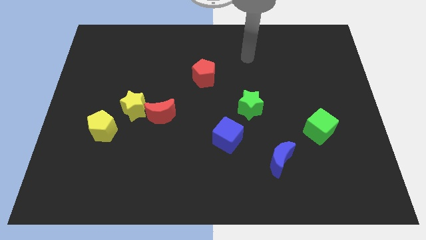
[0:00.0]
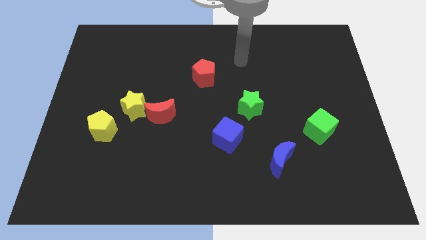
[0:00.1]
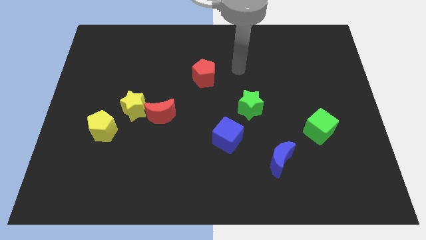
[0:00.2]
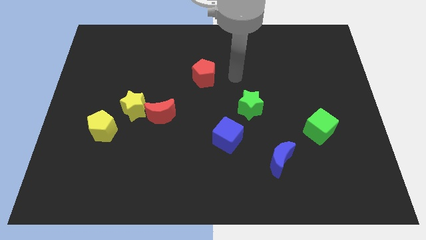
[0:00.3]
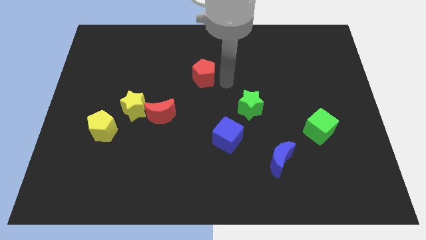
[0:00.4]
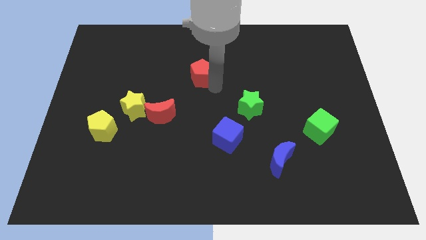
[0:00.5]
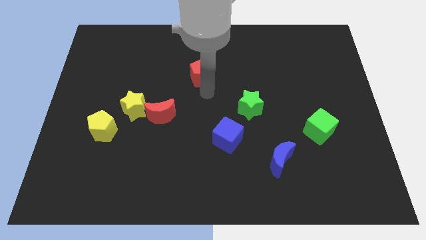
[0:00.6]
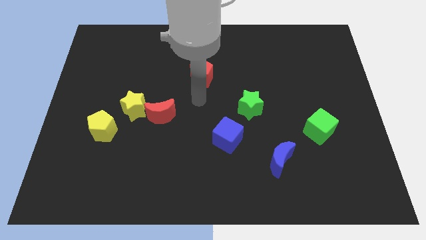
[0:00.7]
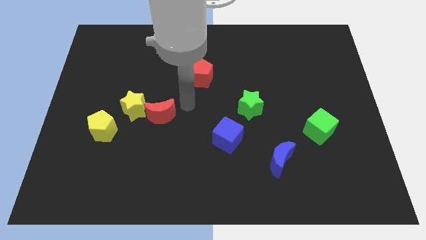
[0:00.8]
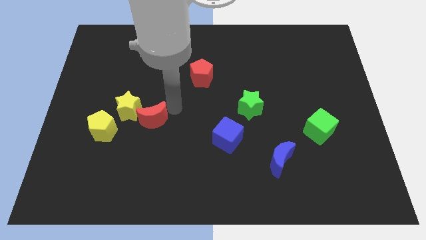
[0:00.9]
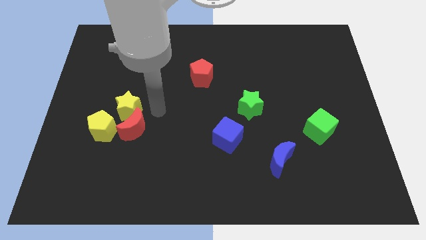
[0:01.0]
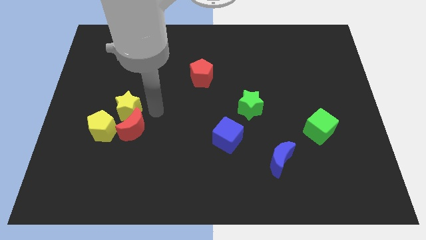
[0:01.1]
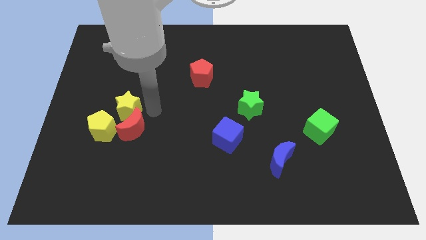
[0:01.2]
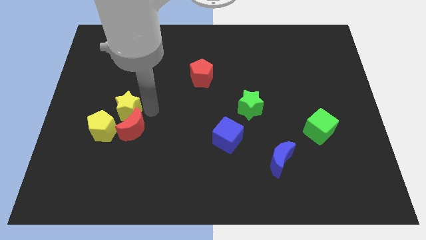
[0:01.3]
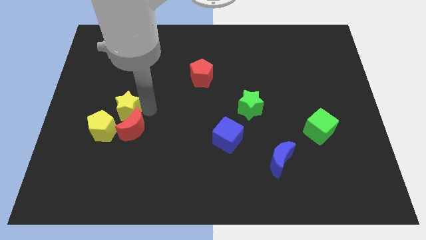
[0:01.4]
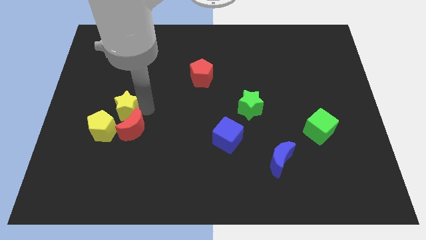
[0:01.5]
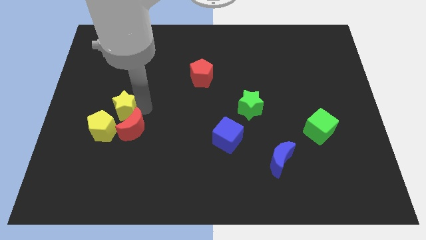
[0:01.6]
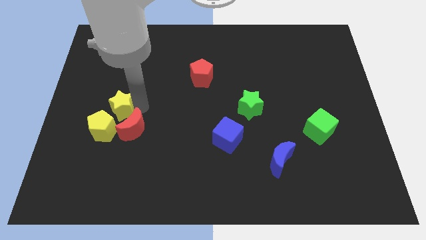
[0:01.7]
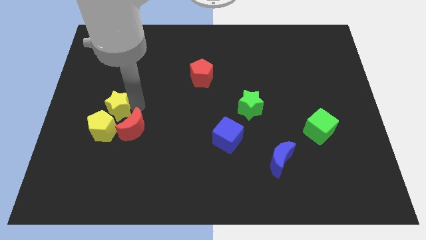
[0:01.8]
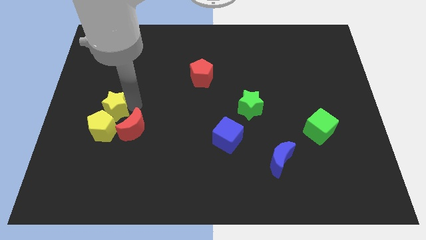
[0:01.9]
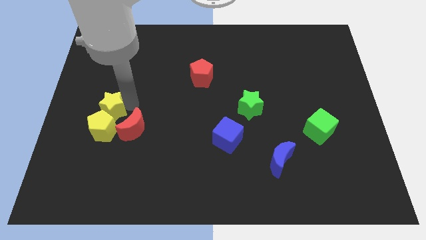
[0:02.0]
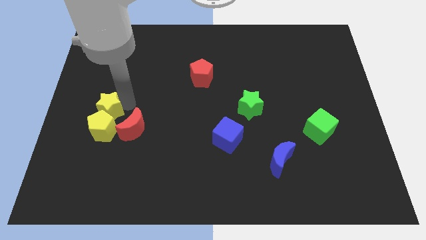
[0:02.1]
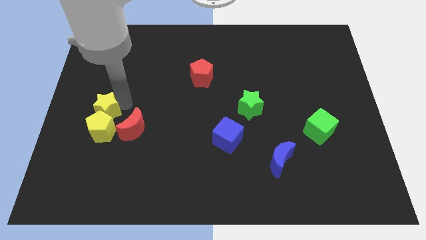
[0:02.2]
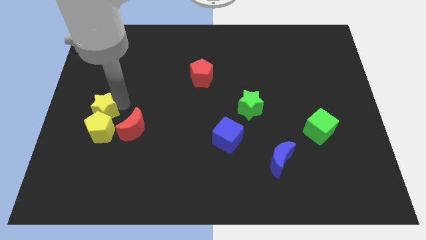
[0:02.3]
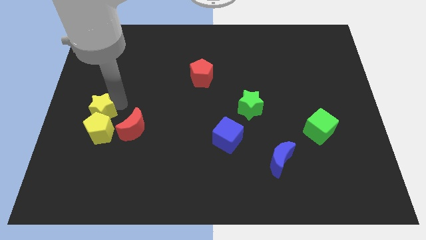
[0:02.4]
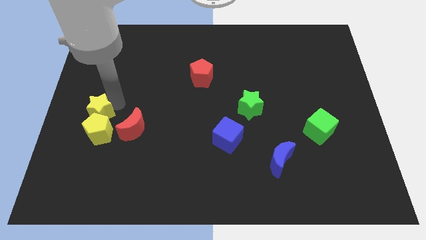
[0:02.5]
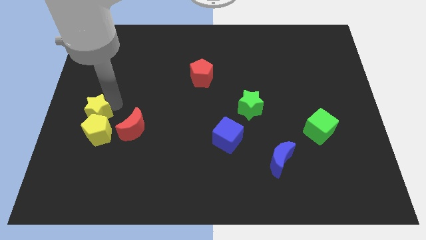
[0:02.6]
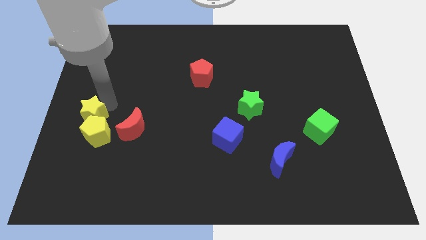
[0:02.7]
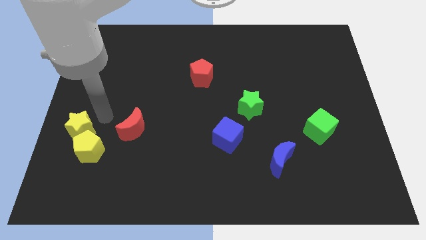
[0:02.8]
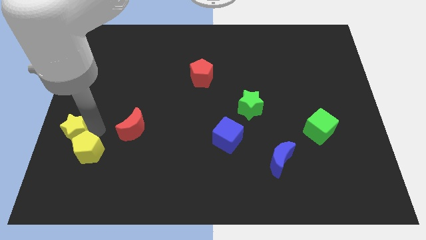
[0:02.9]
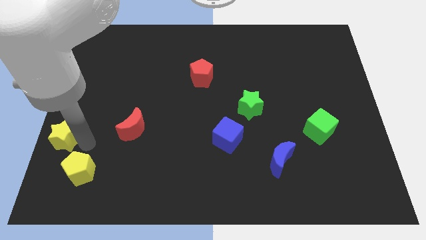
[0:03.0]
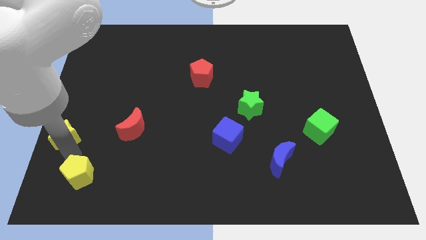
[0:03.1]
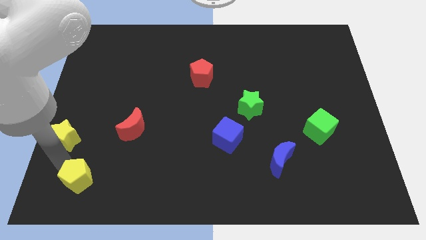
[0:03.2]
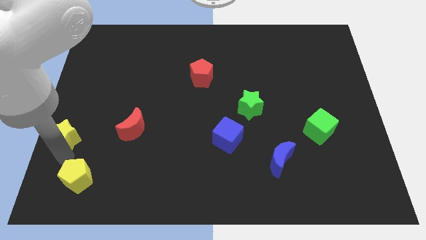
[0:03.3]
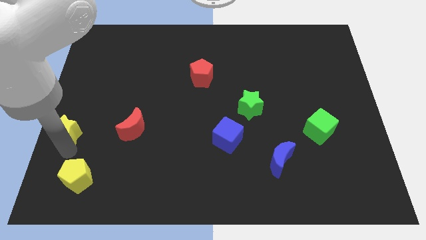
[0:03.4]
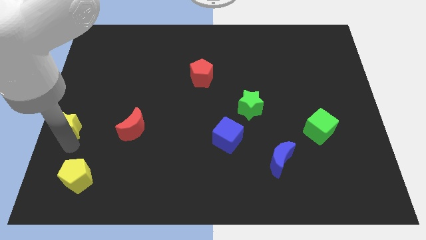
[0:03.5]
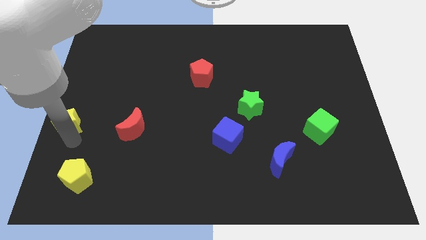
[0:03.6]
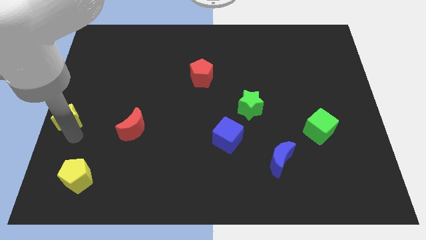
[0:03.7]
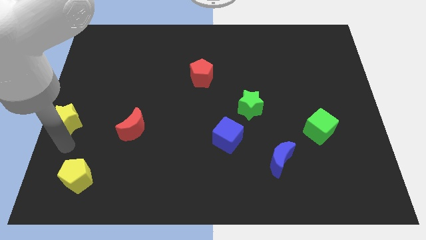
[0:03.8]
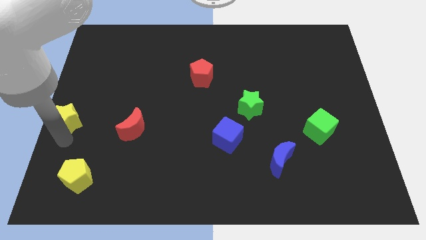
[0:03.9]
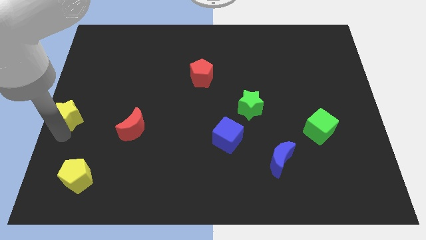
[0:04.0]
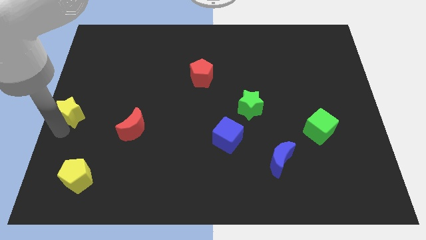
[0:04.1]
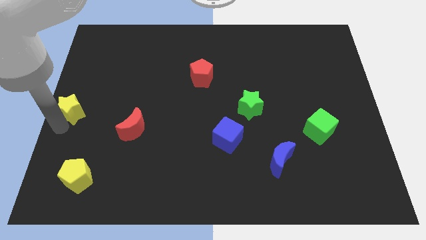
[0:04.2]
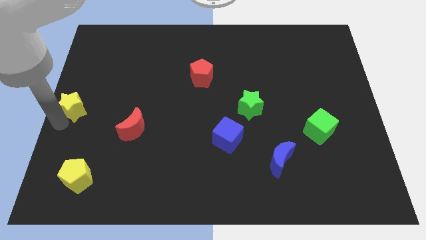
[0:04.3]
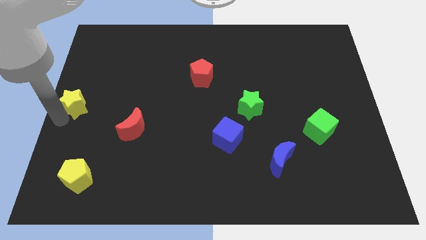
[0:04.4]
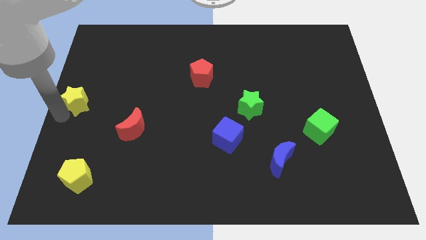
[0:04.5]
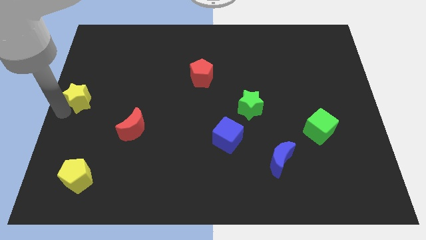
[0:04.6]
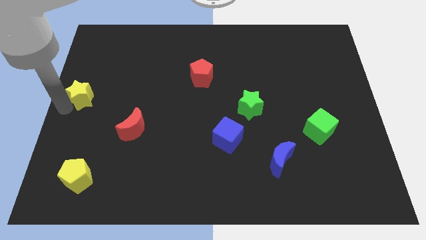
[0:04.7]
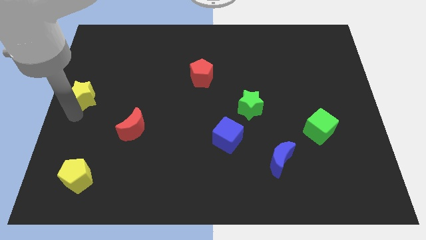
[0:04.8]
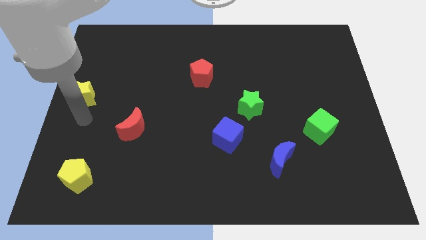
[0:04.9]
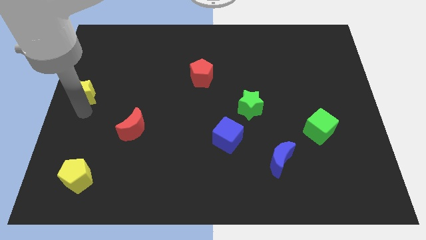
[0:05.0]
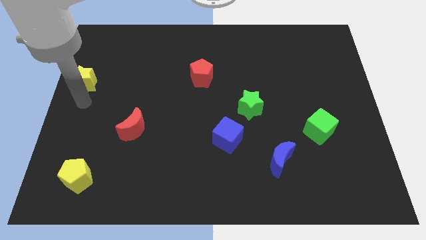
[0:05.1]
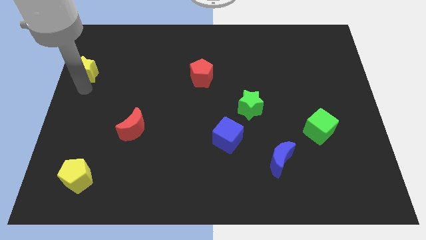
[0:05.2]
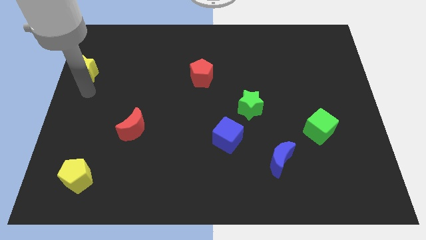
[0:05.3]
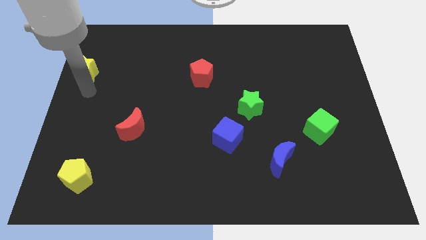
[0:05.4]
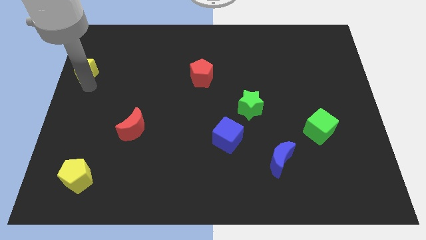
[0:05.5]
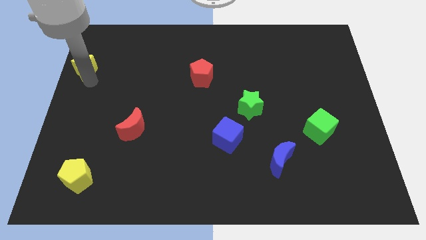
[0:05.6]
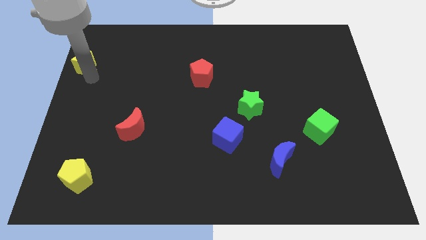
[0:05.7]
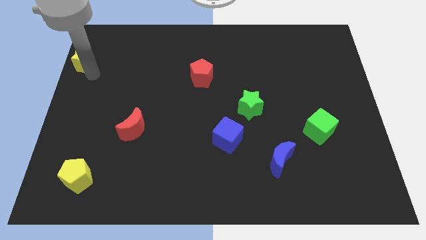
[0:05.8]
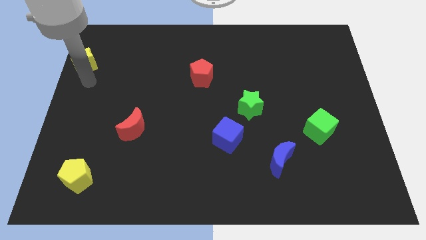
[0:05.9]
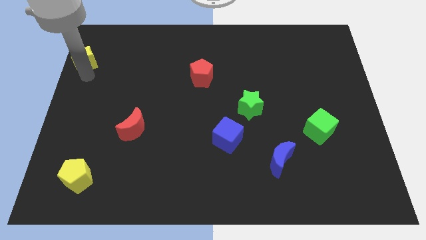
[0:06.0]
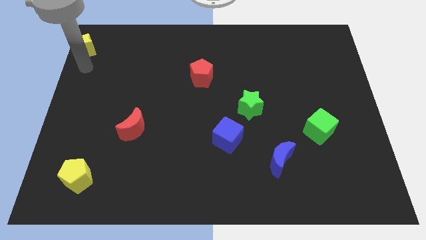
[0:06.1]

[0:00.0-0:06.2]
put the yellow star to the top left

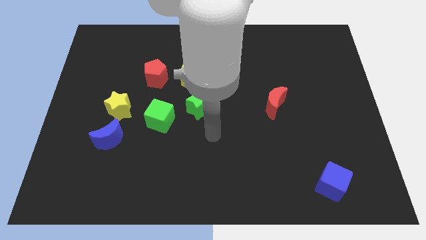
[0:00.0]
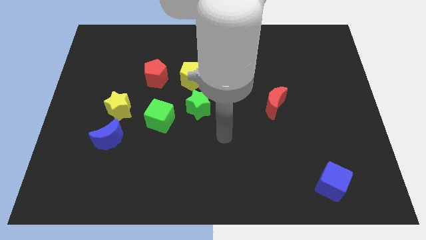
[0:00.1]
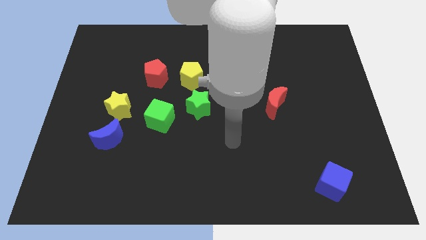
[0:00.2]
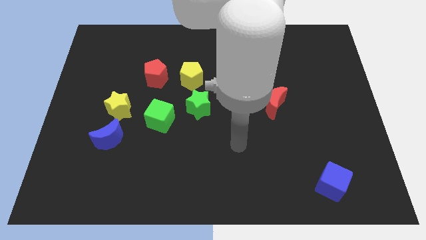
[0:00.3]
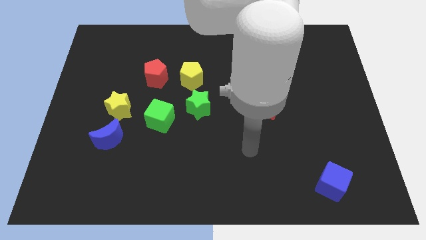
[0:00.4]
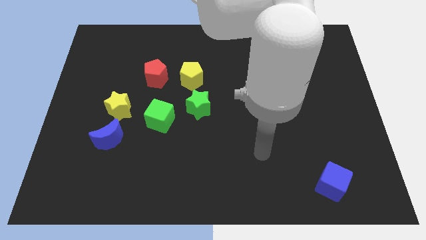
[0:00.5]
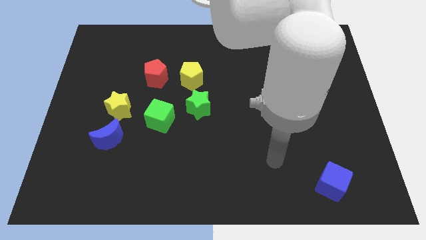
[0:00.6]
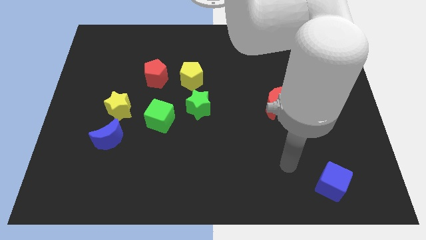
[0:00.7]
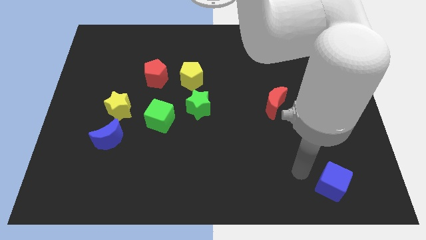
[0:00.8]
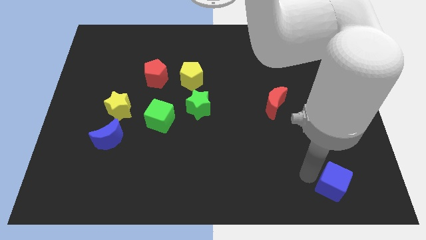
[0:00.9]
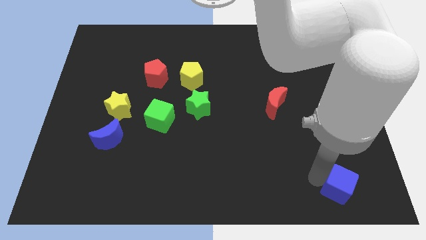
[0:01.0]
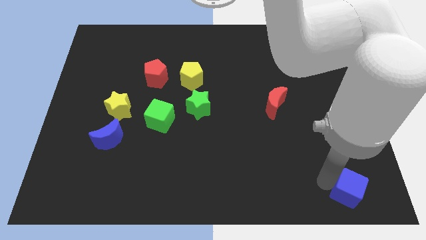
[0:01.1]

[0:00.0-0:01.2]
push the blue cube to the bottom right corner

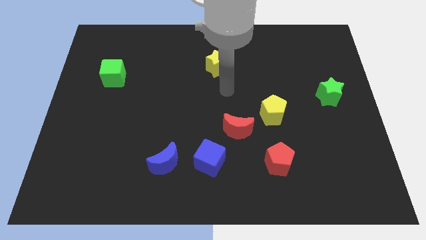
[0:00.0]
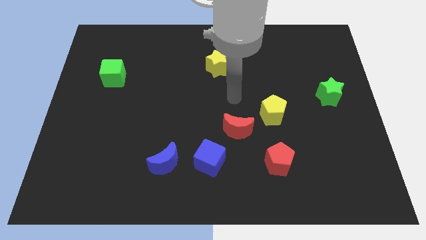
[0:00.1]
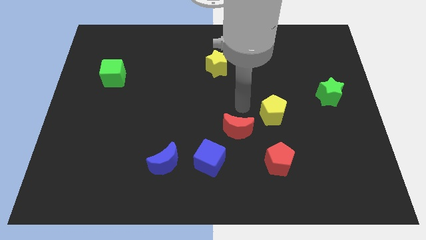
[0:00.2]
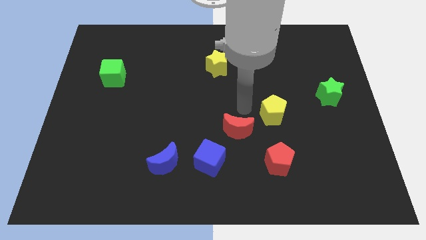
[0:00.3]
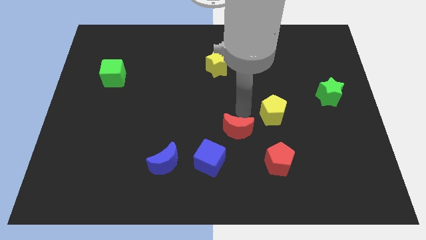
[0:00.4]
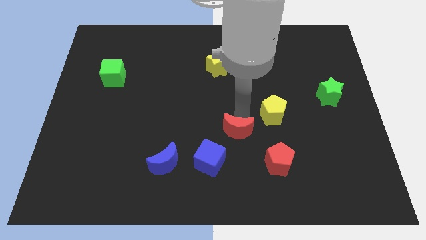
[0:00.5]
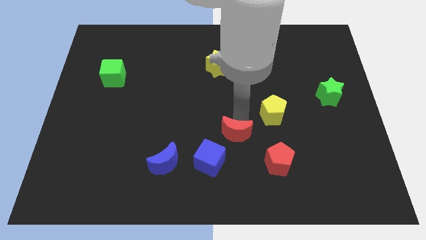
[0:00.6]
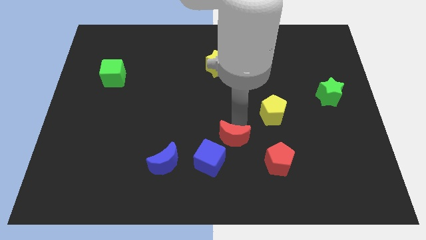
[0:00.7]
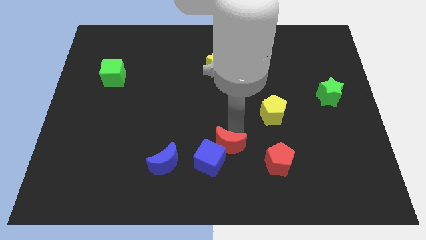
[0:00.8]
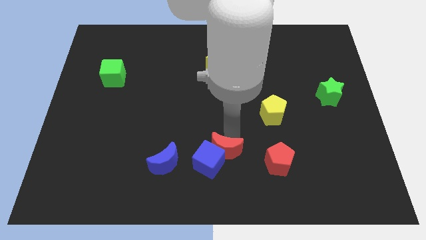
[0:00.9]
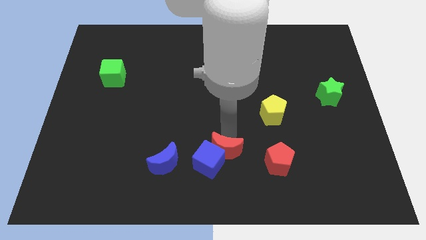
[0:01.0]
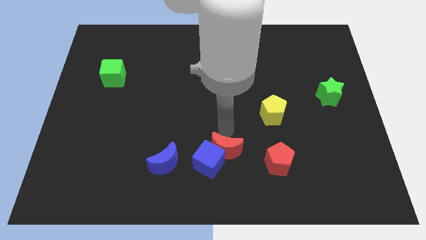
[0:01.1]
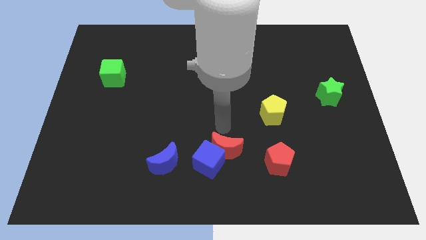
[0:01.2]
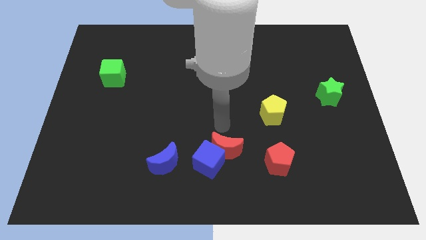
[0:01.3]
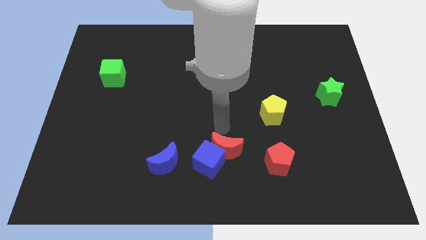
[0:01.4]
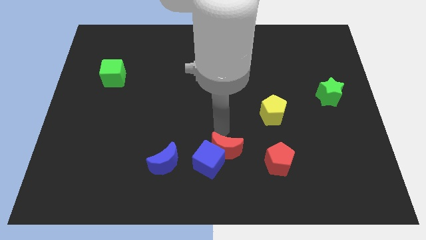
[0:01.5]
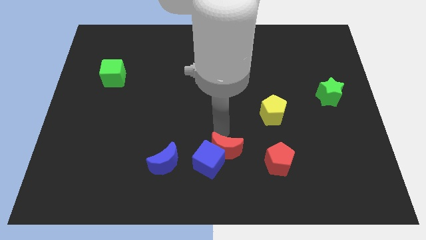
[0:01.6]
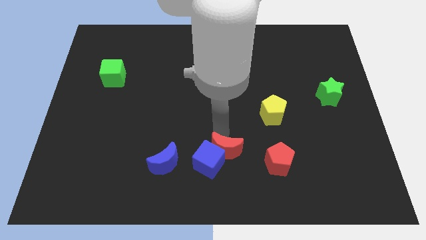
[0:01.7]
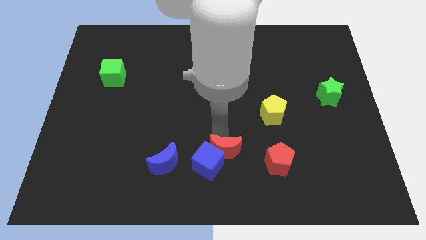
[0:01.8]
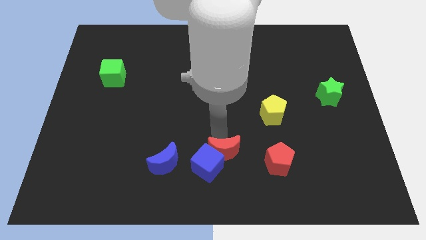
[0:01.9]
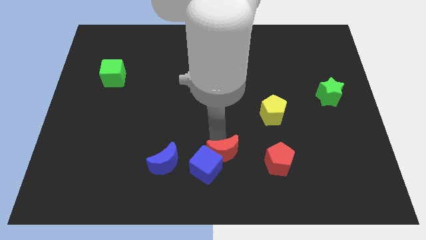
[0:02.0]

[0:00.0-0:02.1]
move the red moon to the bottom side
